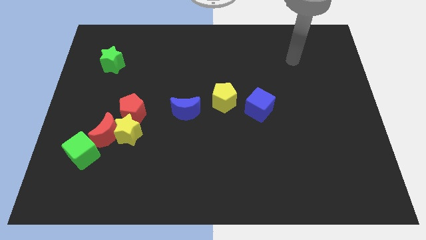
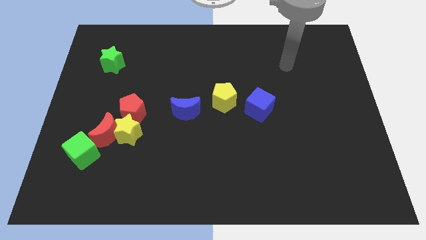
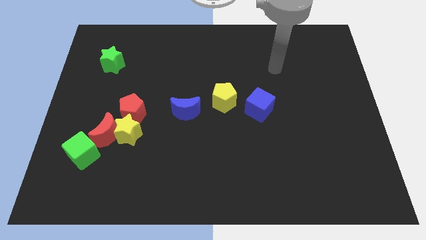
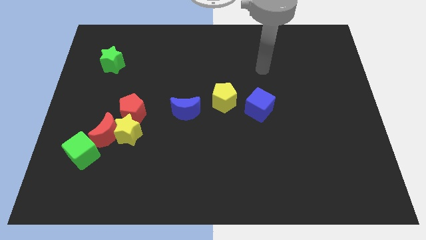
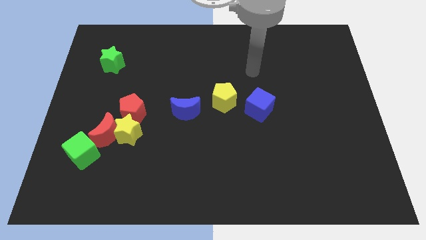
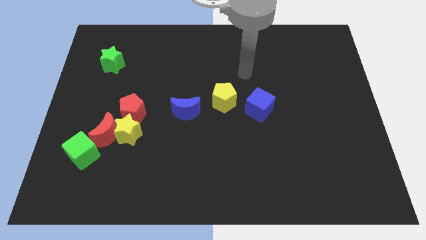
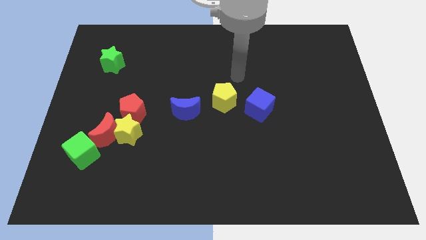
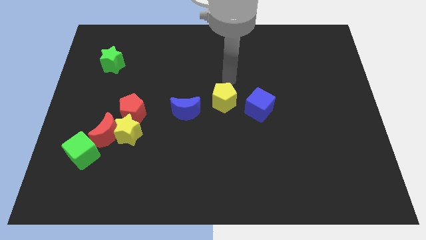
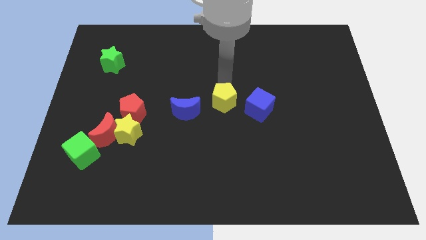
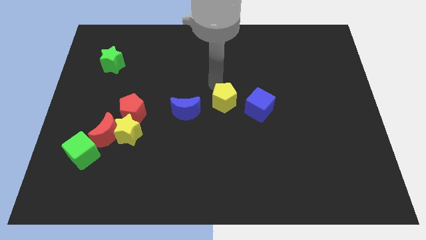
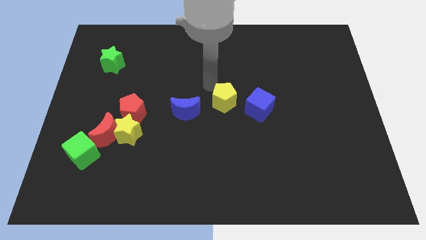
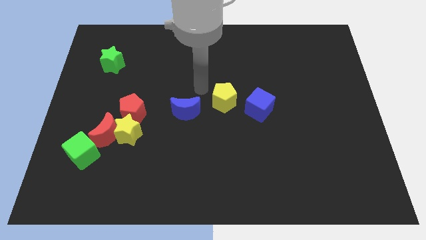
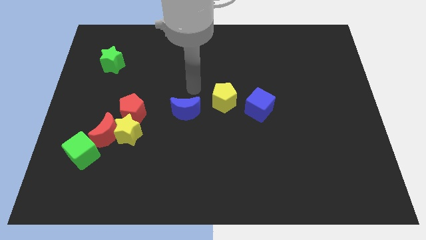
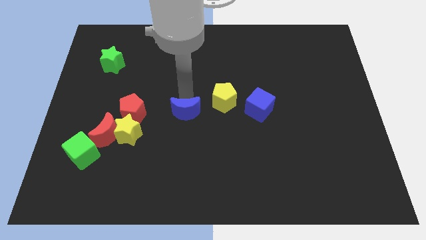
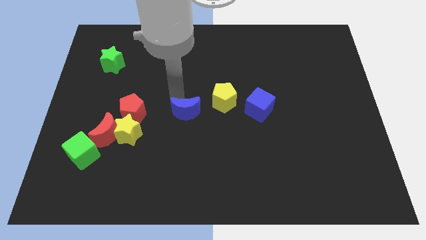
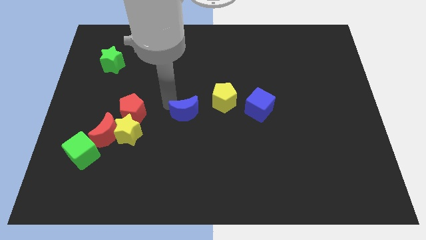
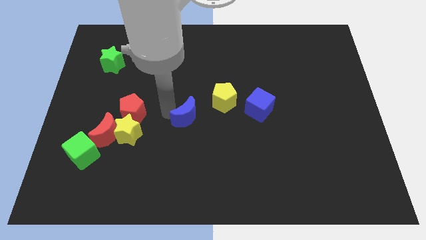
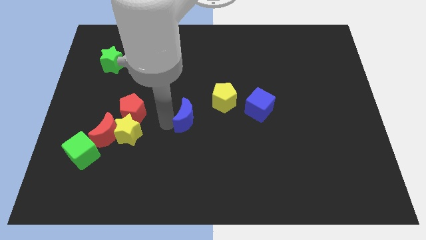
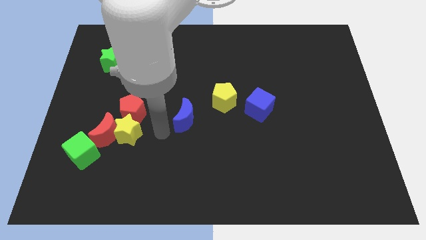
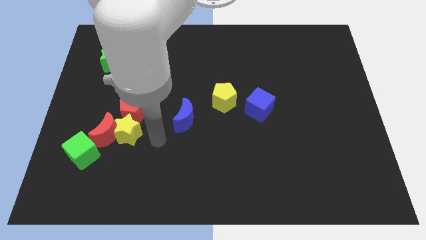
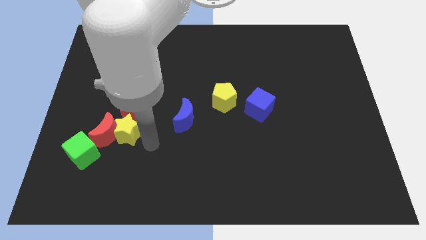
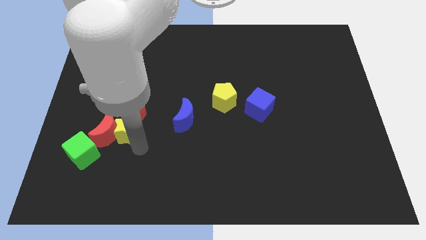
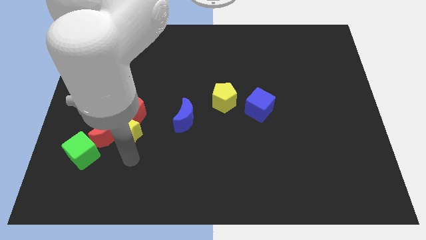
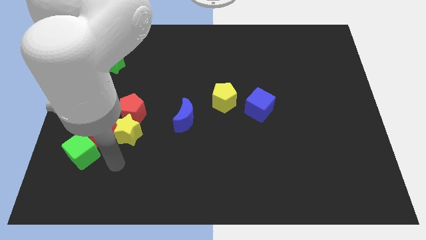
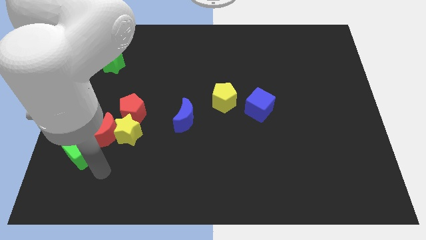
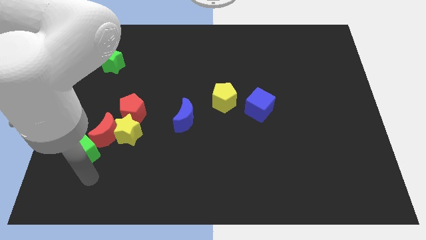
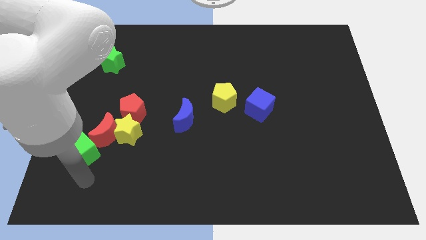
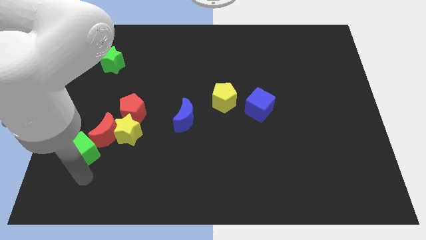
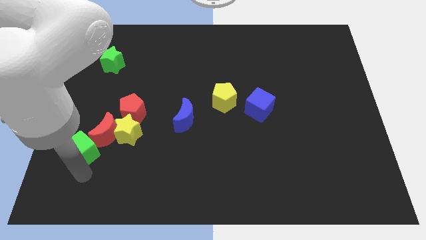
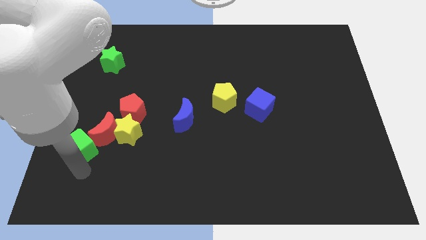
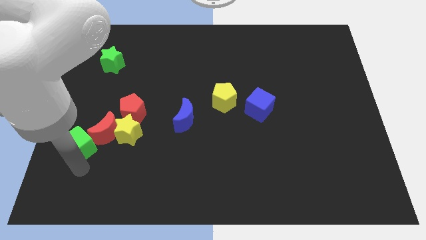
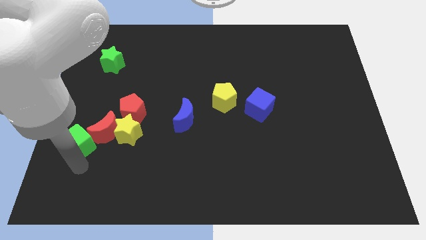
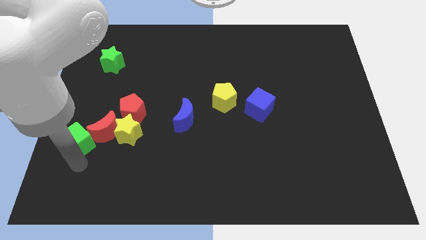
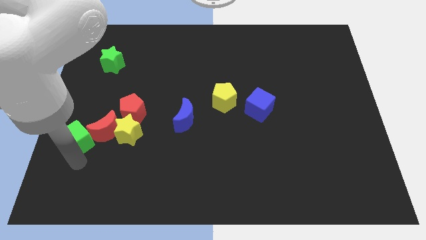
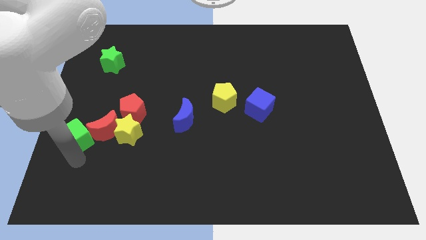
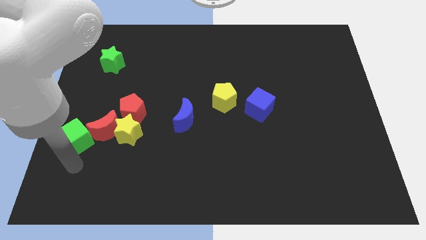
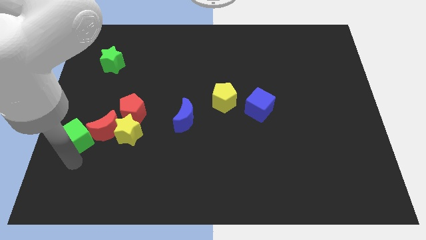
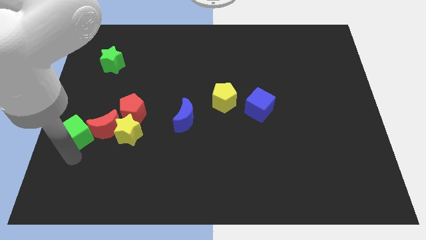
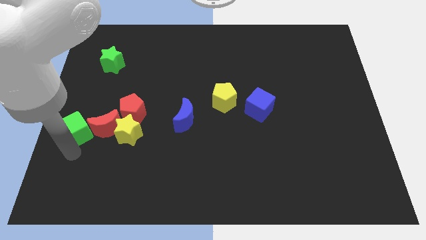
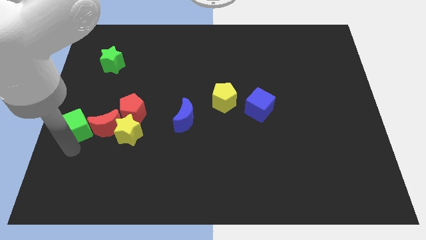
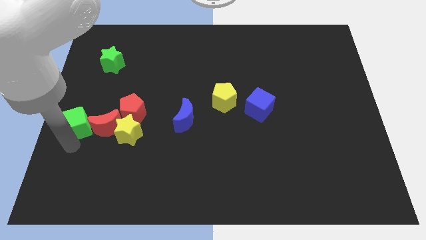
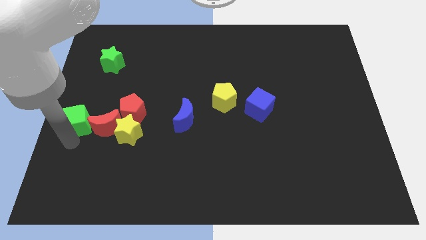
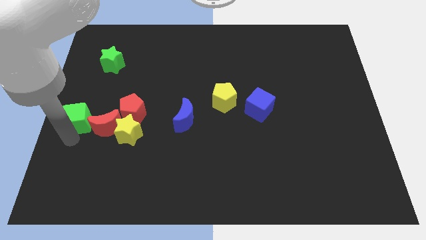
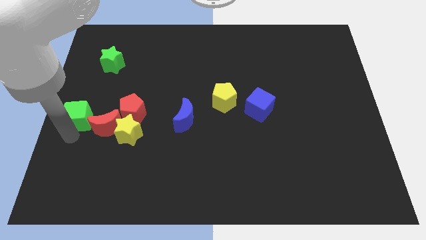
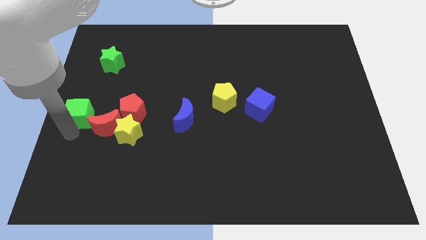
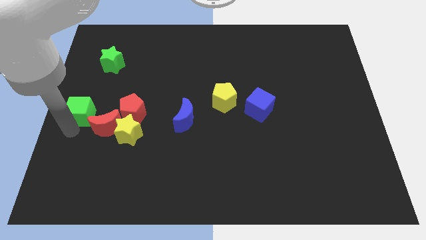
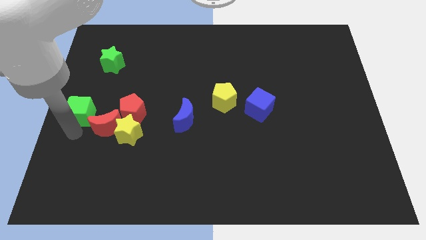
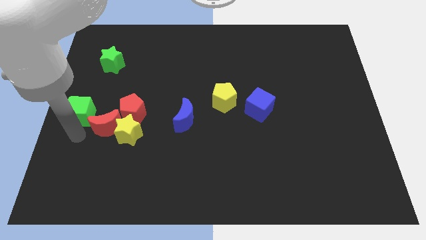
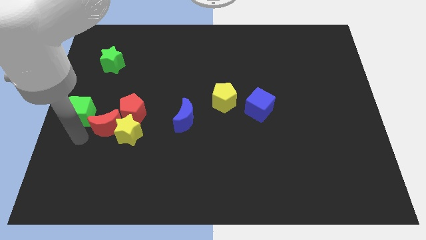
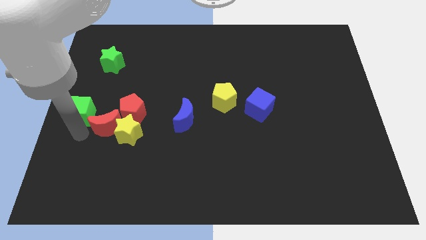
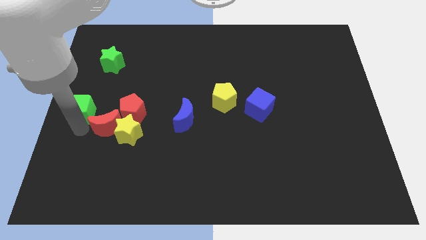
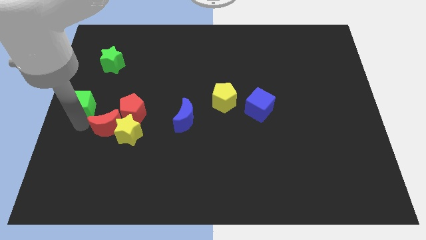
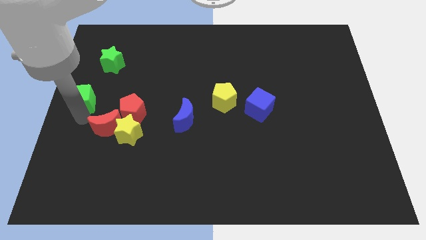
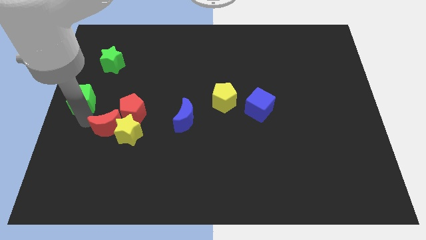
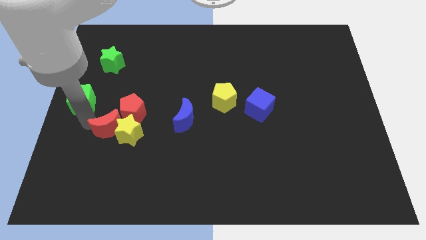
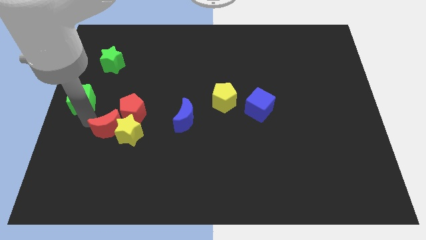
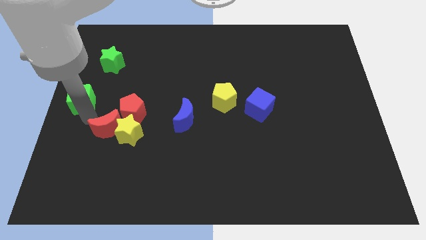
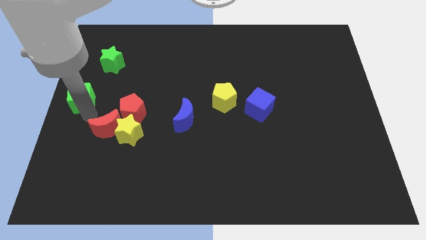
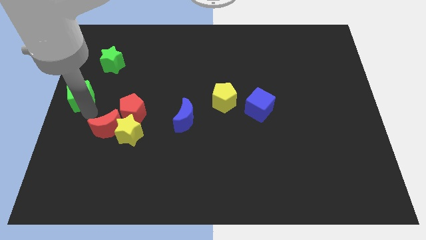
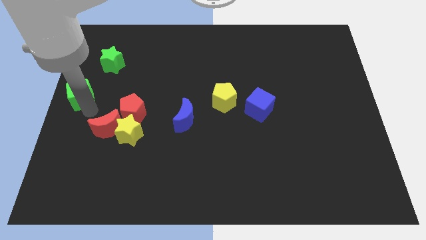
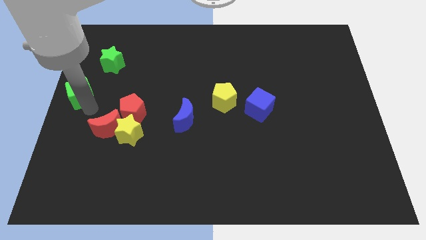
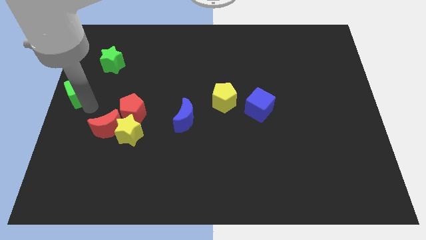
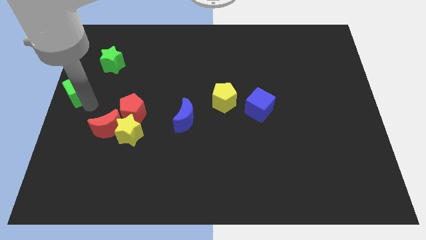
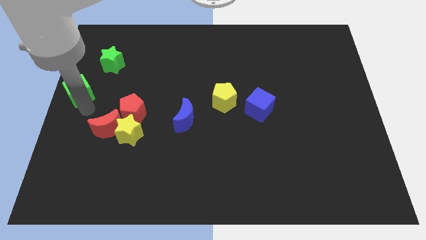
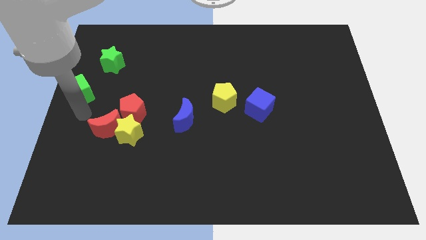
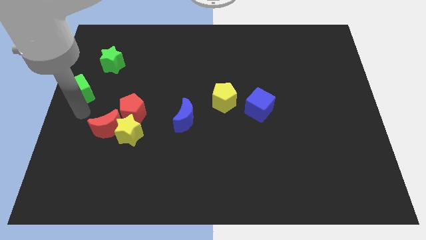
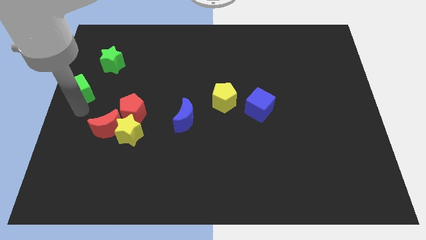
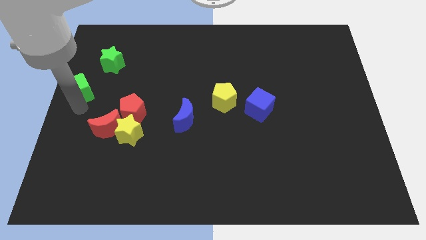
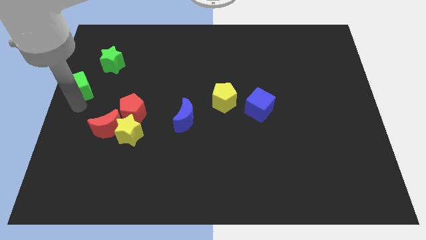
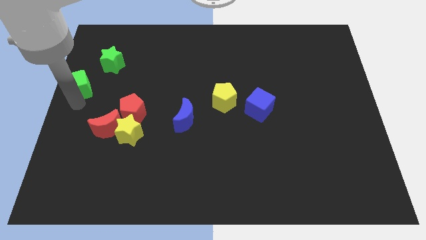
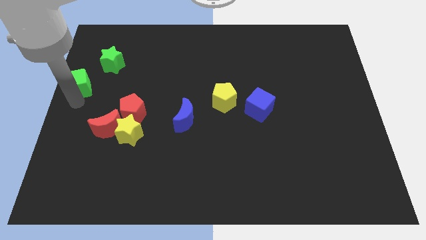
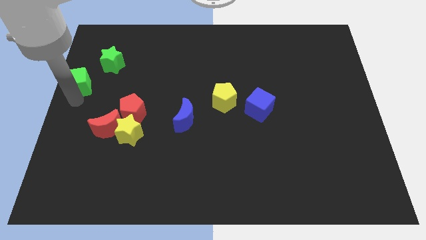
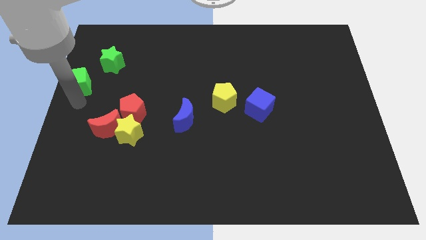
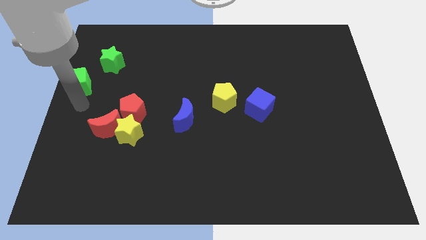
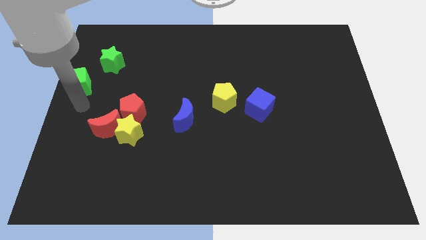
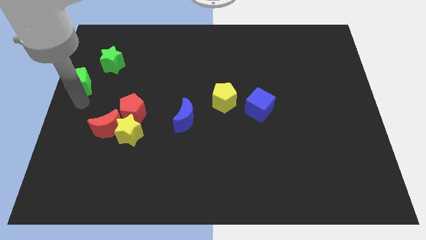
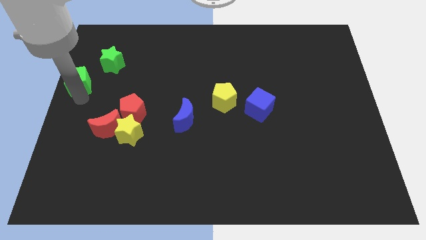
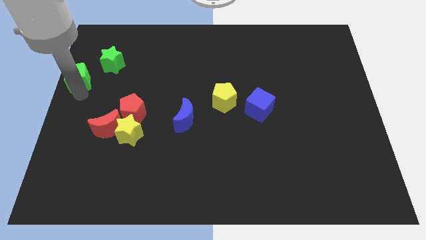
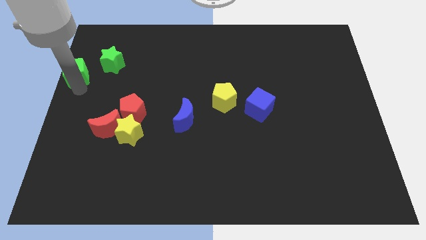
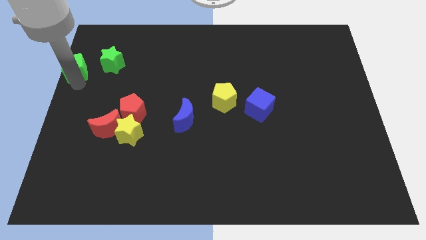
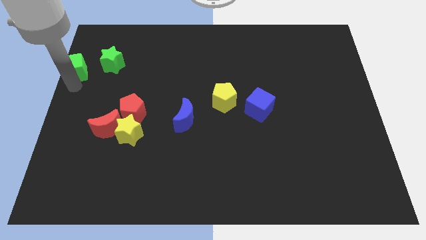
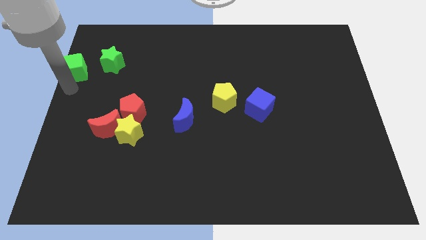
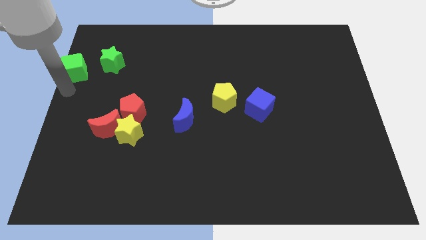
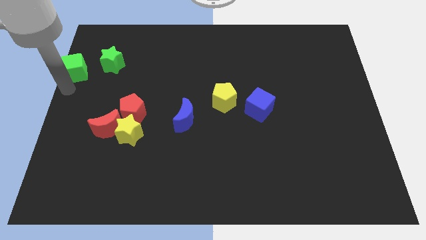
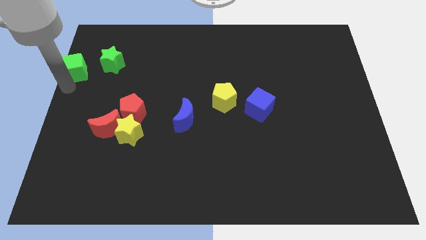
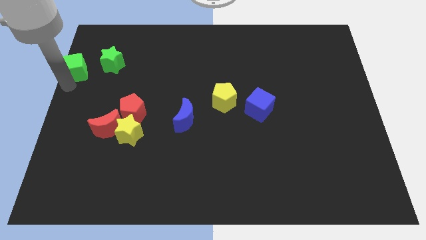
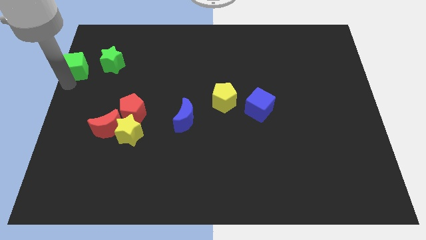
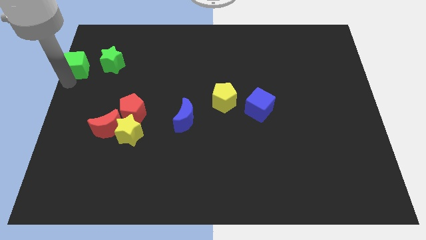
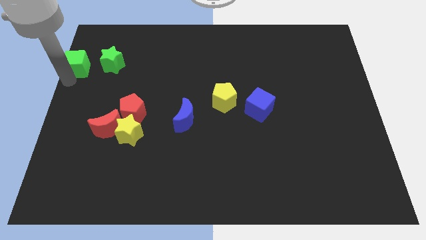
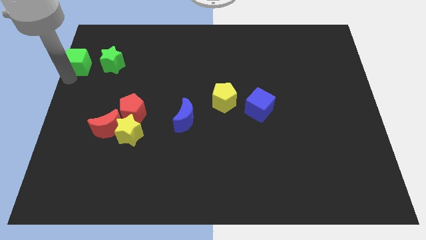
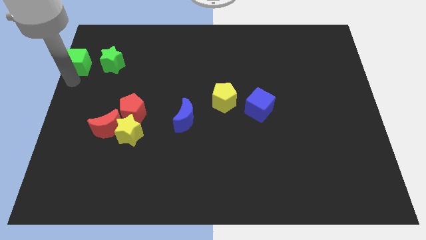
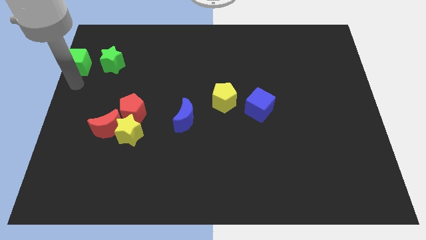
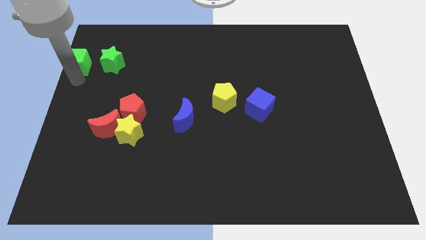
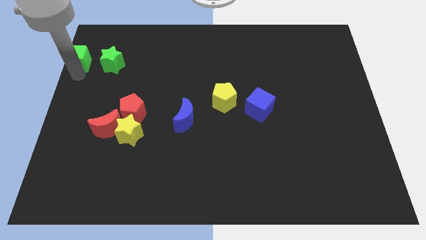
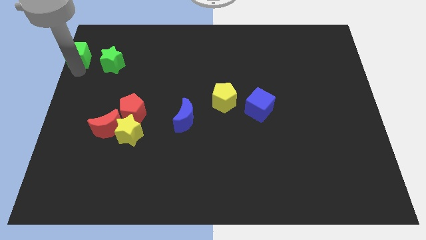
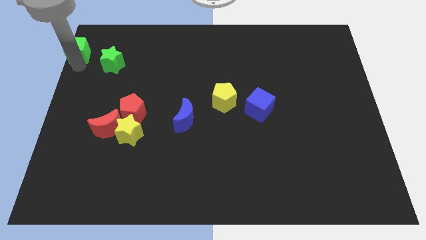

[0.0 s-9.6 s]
move the green cube to the top left of the board
